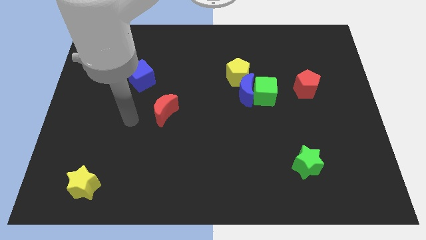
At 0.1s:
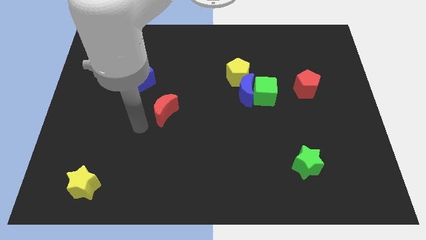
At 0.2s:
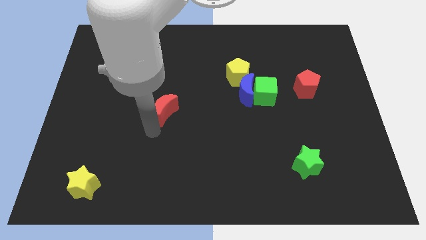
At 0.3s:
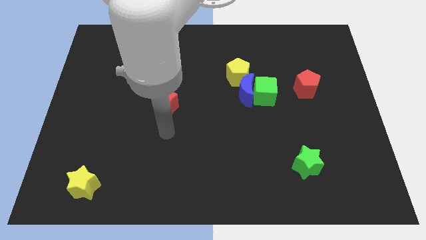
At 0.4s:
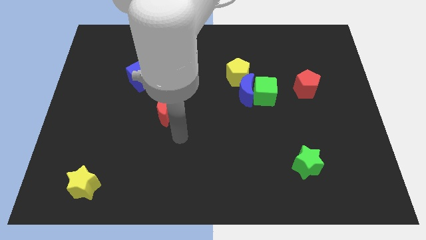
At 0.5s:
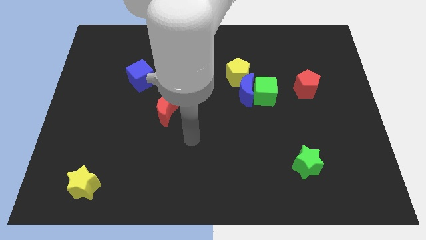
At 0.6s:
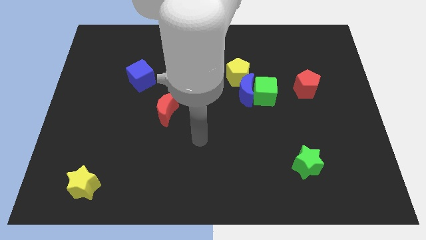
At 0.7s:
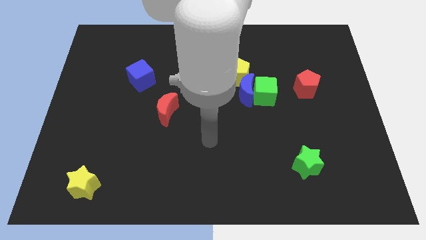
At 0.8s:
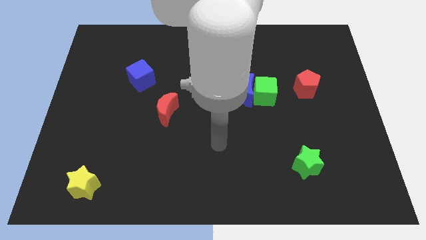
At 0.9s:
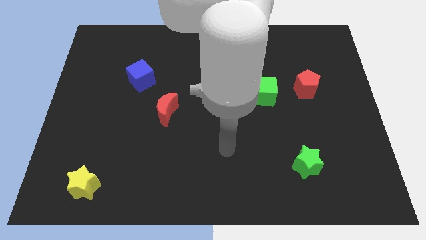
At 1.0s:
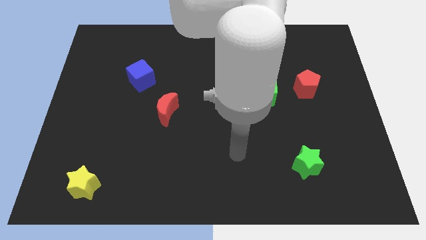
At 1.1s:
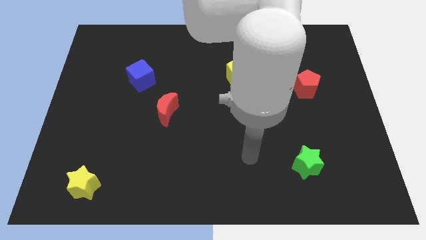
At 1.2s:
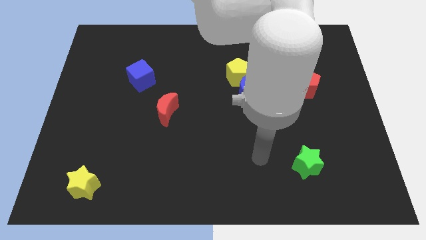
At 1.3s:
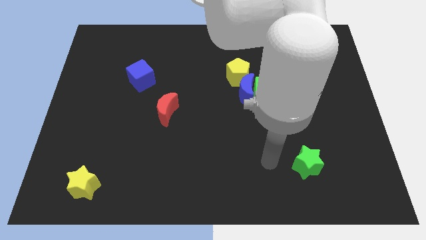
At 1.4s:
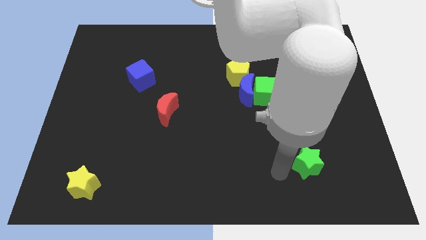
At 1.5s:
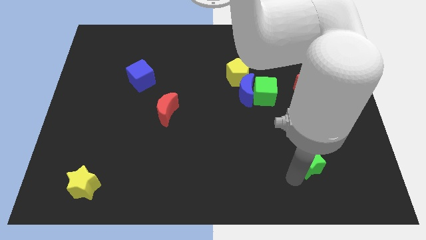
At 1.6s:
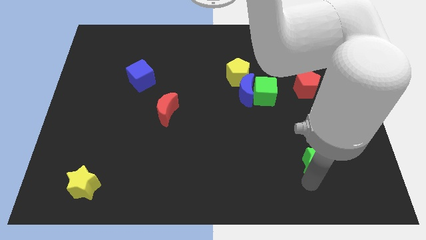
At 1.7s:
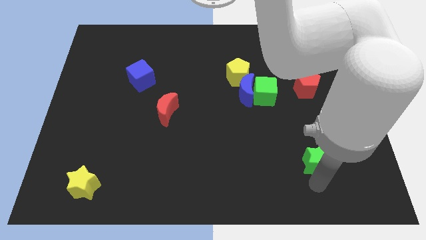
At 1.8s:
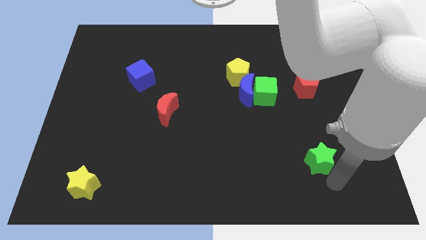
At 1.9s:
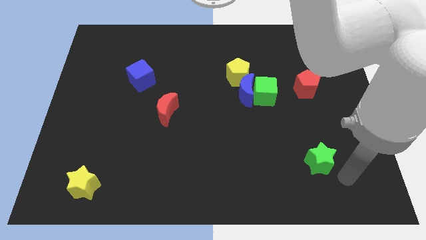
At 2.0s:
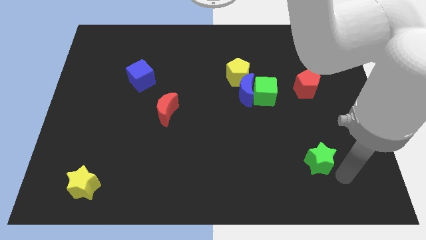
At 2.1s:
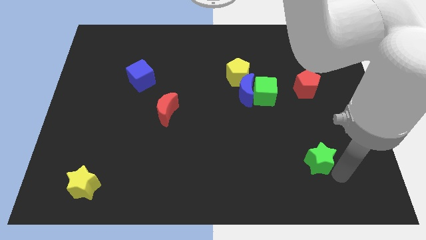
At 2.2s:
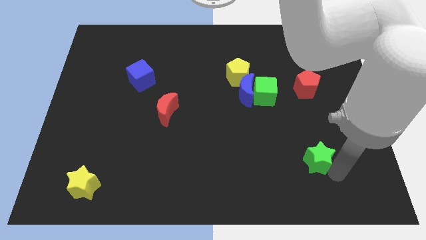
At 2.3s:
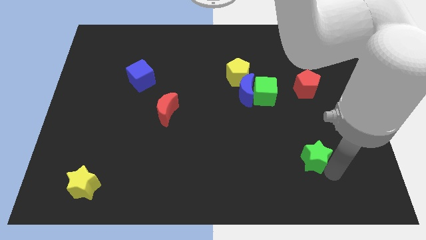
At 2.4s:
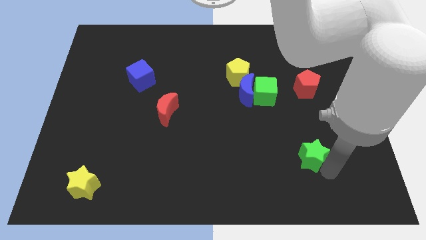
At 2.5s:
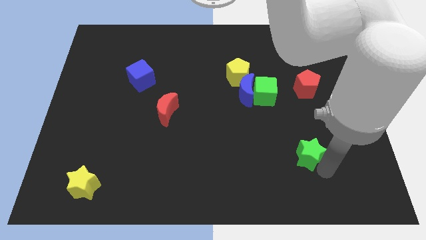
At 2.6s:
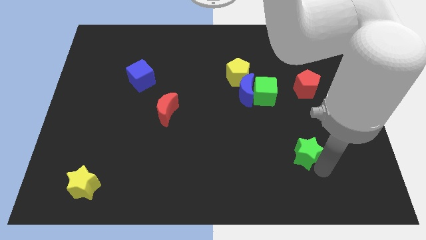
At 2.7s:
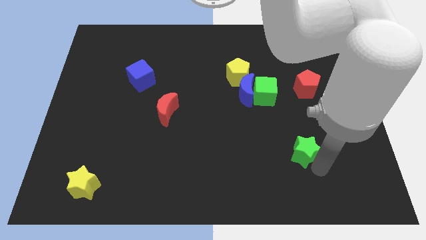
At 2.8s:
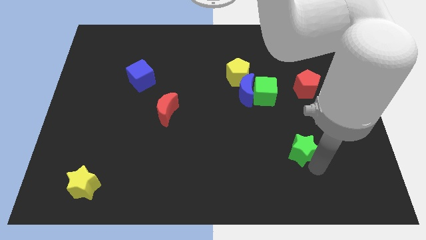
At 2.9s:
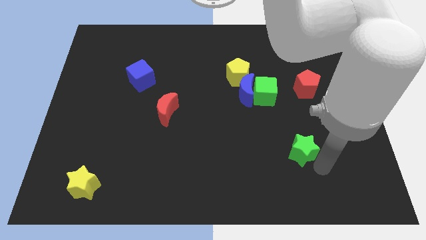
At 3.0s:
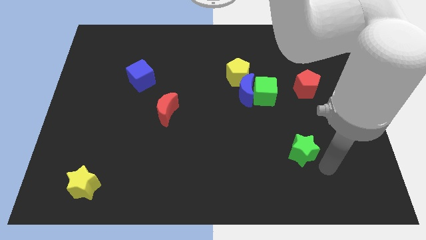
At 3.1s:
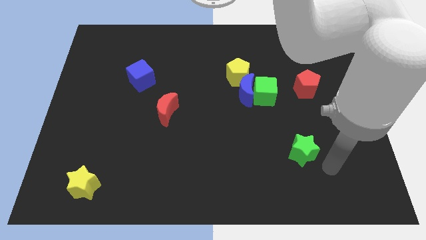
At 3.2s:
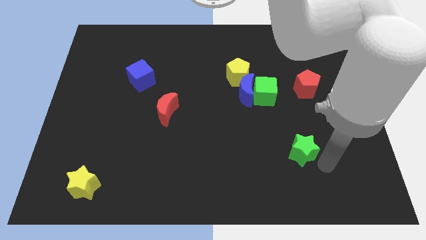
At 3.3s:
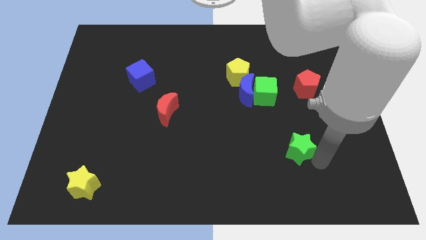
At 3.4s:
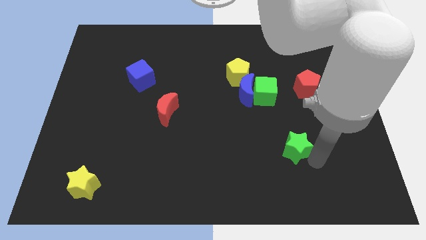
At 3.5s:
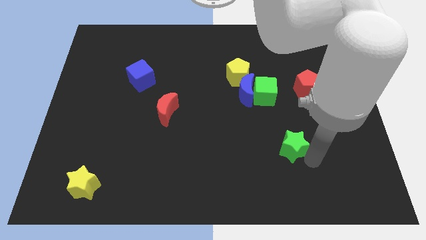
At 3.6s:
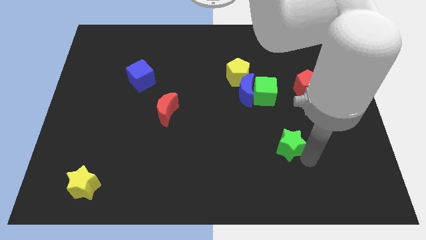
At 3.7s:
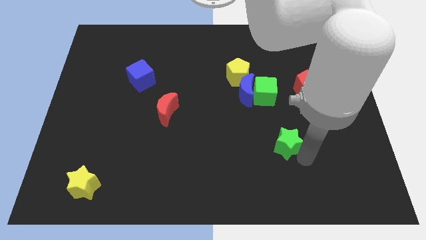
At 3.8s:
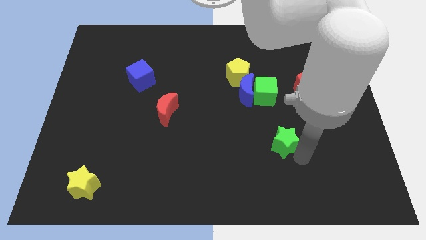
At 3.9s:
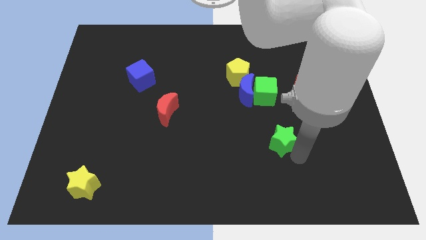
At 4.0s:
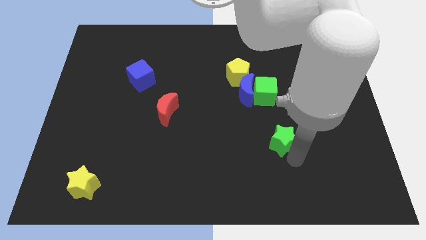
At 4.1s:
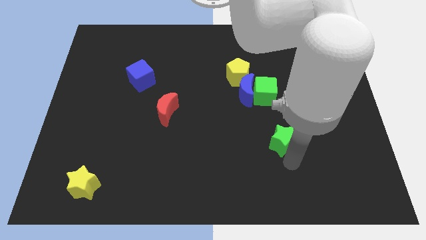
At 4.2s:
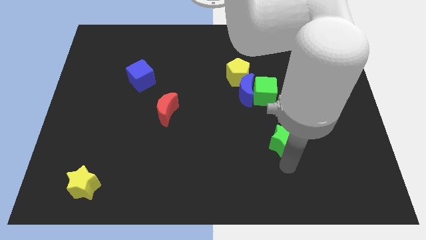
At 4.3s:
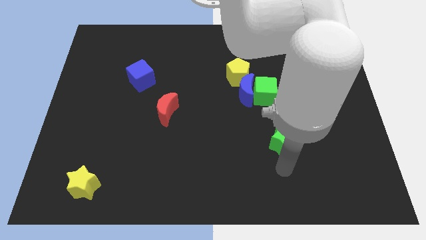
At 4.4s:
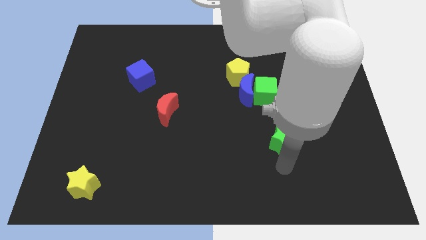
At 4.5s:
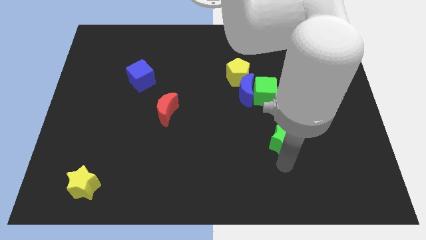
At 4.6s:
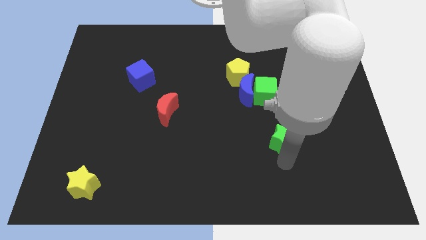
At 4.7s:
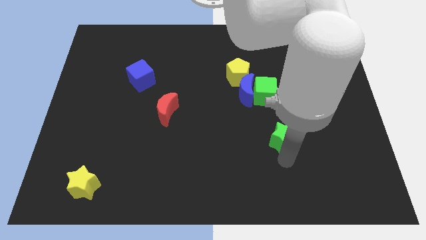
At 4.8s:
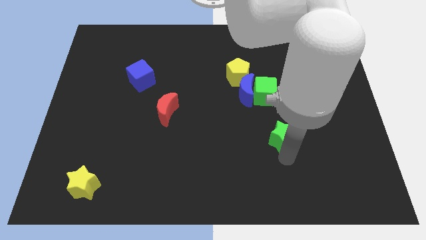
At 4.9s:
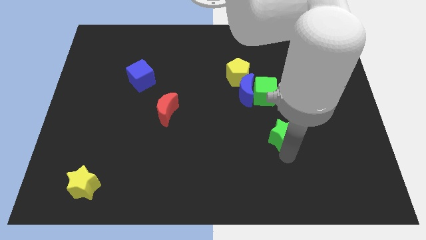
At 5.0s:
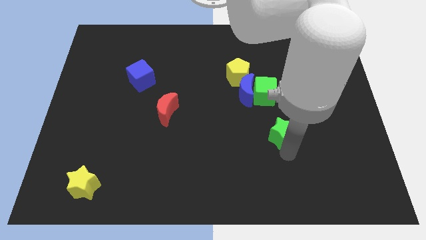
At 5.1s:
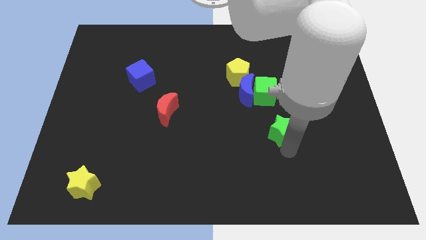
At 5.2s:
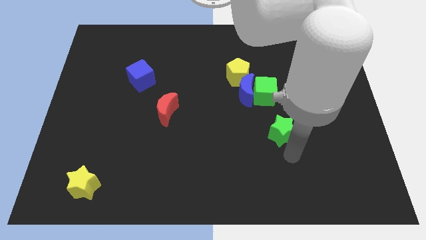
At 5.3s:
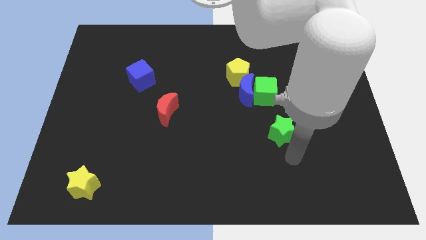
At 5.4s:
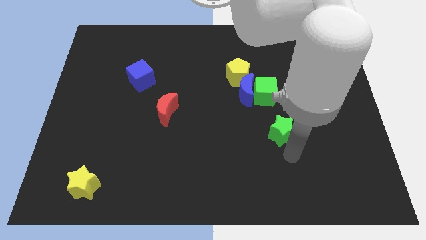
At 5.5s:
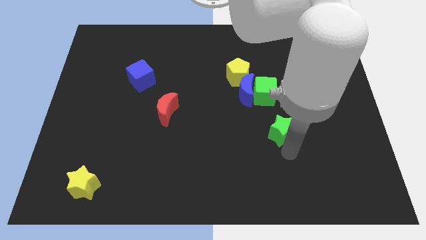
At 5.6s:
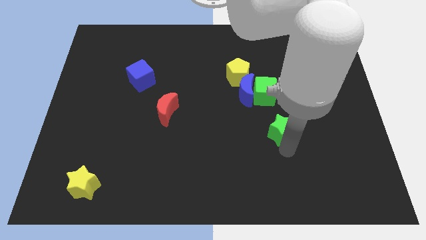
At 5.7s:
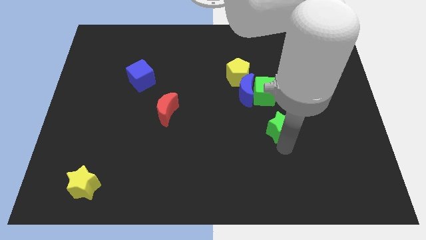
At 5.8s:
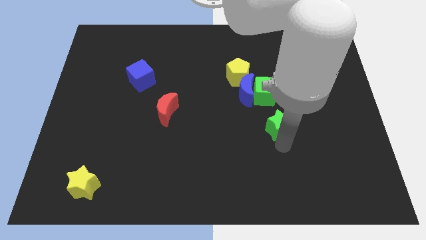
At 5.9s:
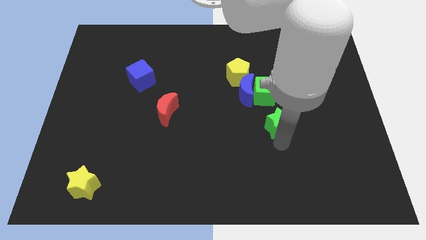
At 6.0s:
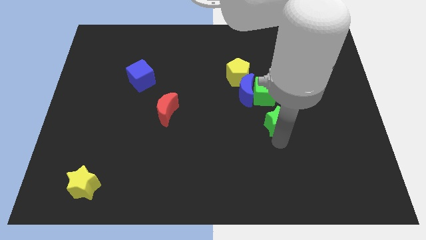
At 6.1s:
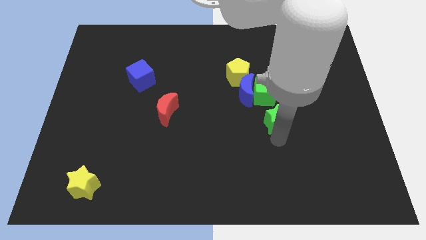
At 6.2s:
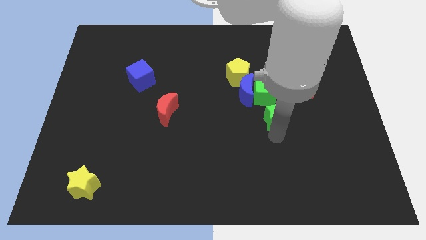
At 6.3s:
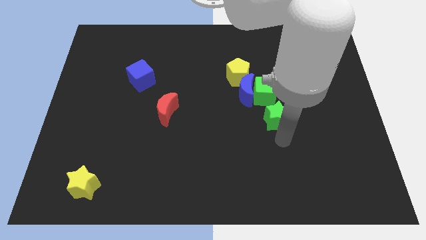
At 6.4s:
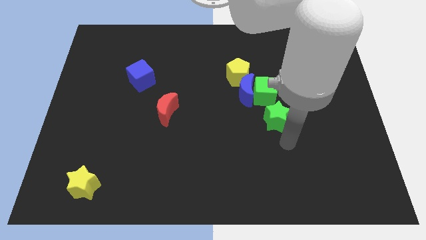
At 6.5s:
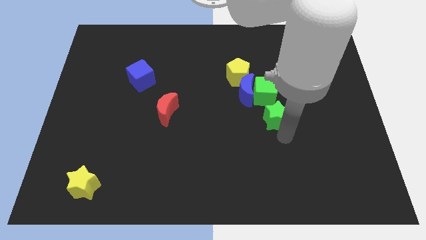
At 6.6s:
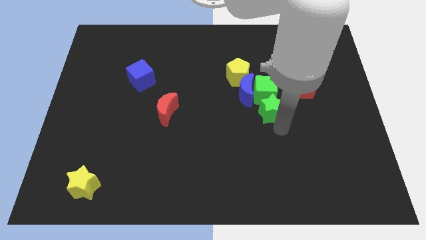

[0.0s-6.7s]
slide the green star next to the green cube

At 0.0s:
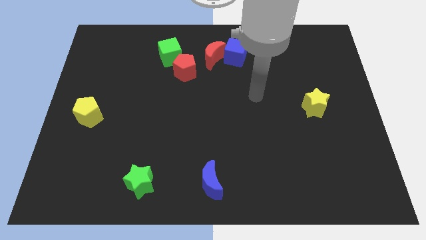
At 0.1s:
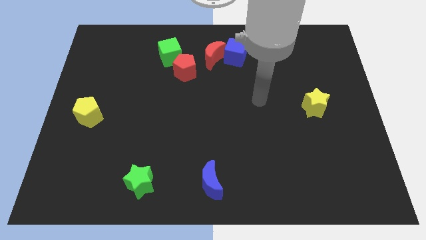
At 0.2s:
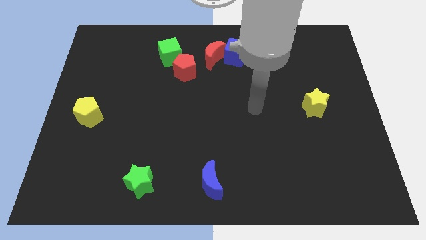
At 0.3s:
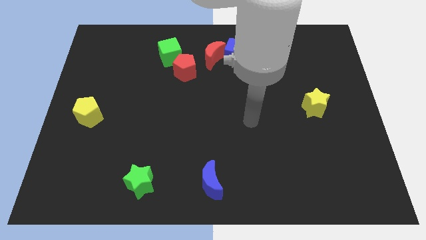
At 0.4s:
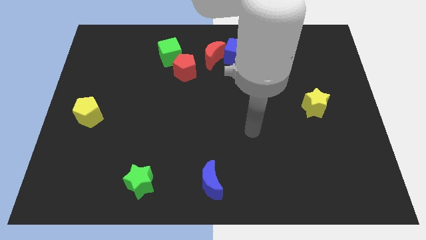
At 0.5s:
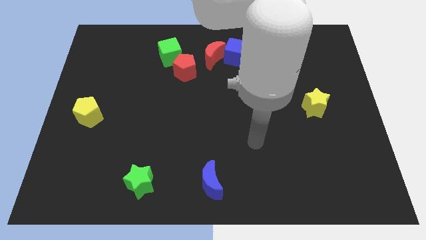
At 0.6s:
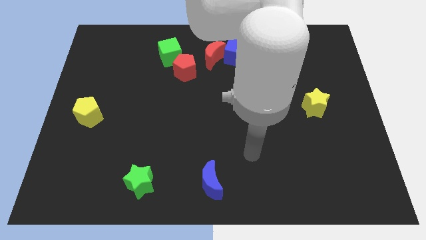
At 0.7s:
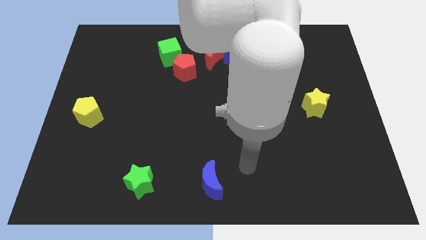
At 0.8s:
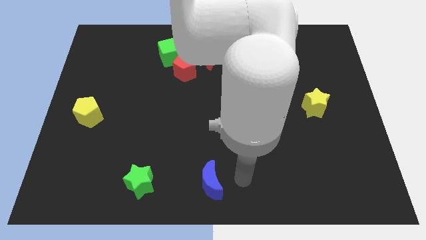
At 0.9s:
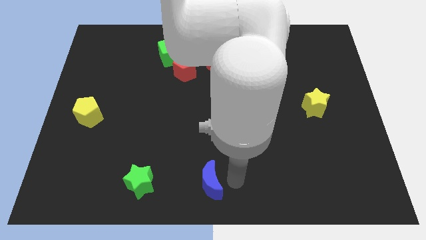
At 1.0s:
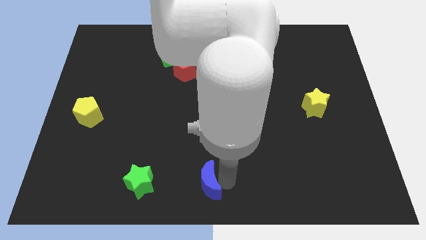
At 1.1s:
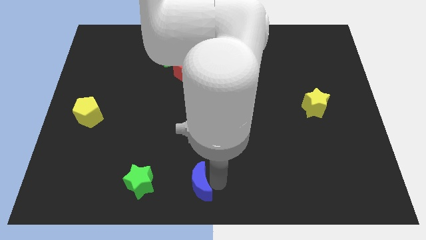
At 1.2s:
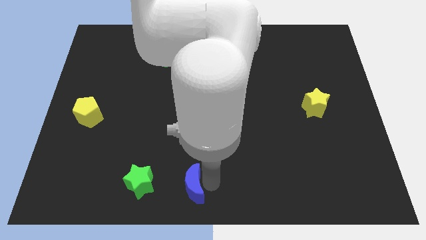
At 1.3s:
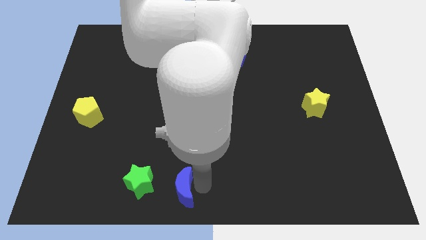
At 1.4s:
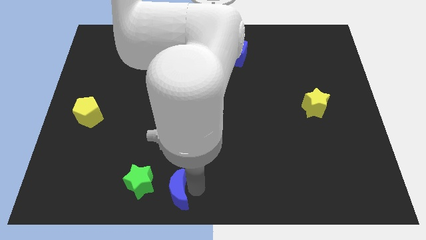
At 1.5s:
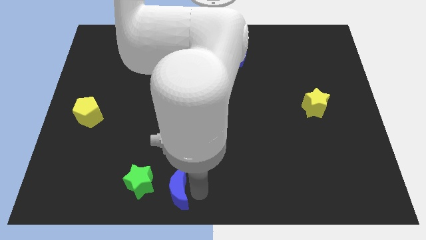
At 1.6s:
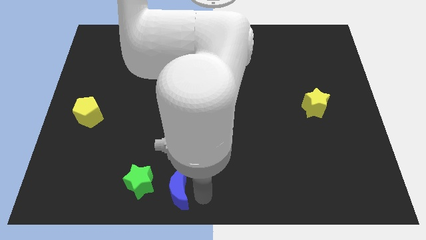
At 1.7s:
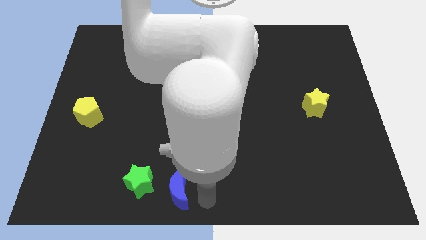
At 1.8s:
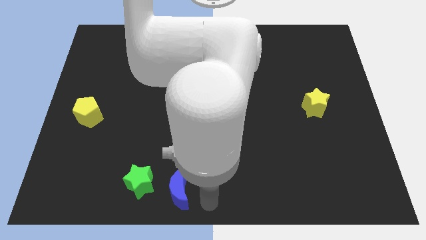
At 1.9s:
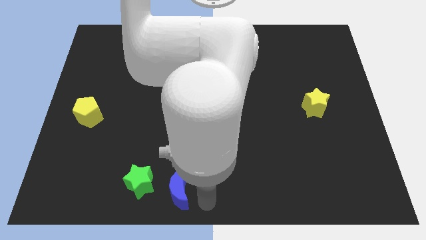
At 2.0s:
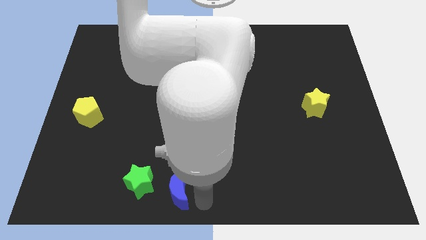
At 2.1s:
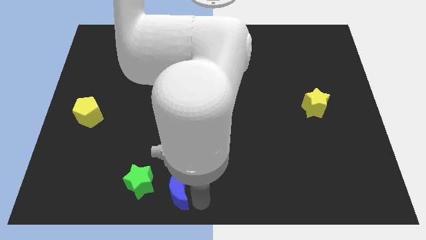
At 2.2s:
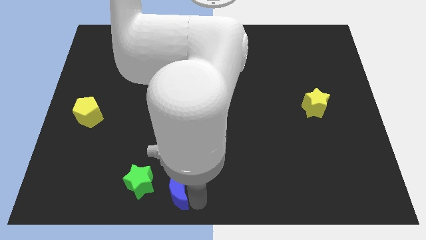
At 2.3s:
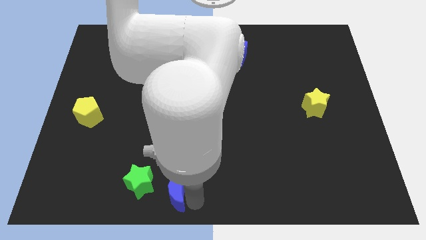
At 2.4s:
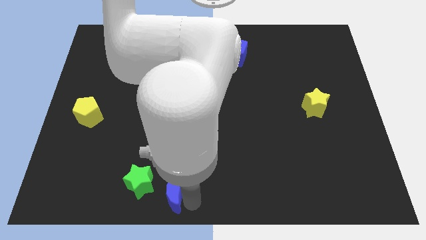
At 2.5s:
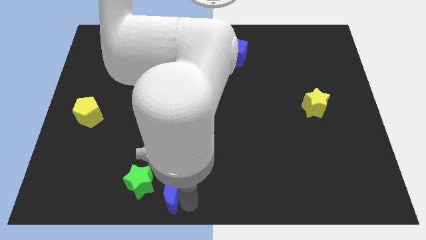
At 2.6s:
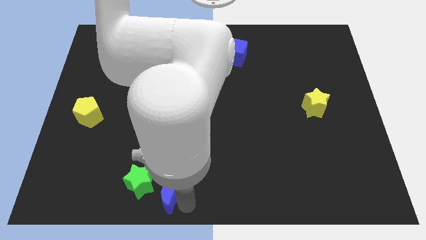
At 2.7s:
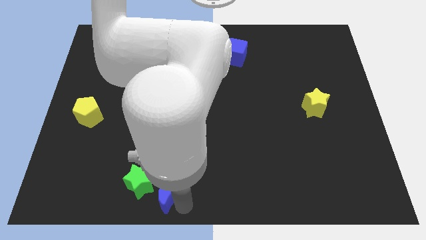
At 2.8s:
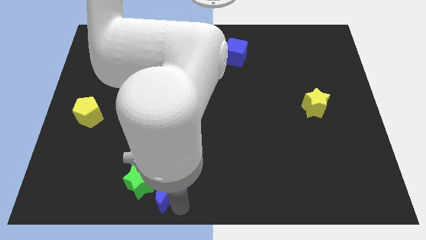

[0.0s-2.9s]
push the blue moon close to the green star
